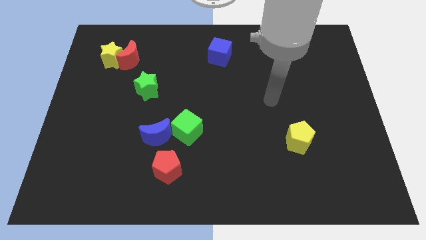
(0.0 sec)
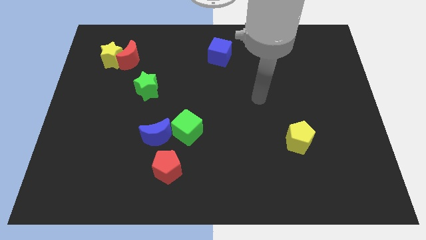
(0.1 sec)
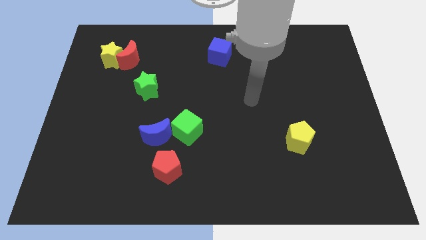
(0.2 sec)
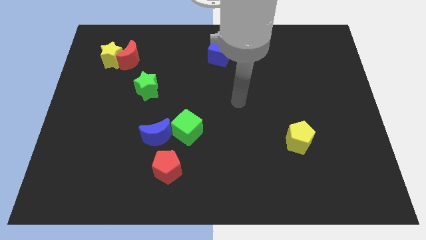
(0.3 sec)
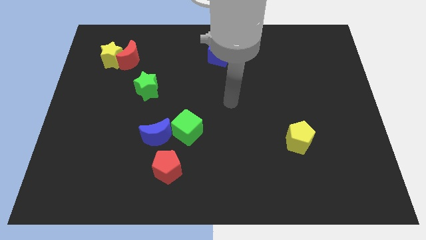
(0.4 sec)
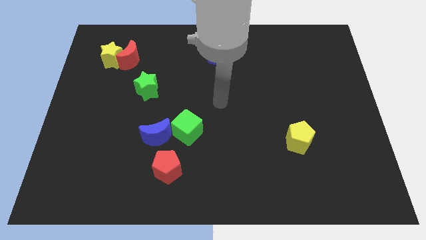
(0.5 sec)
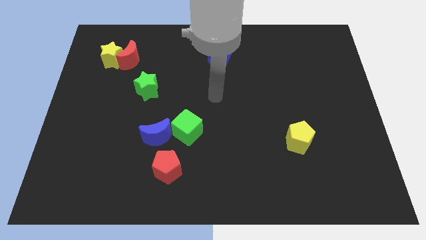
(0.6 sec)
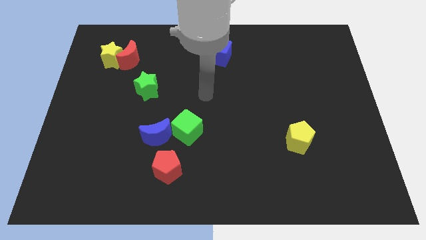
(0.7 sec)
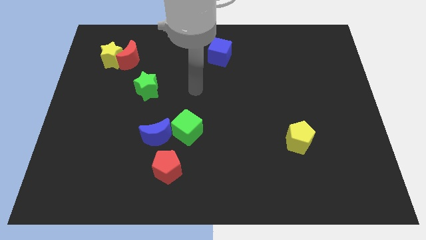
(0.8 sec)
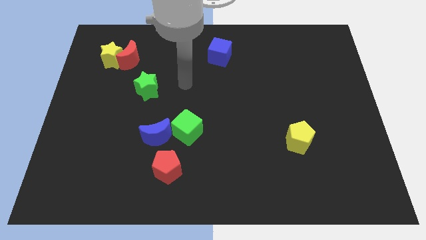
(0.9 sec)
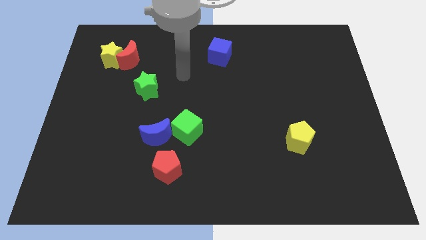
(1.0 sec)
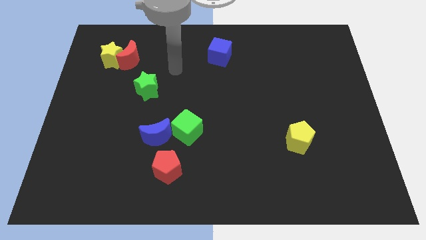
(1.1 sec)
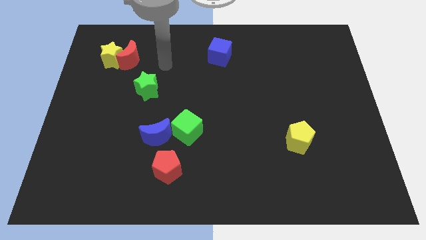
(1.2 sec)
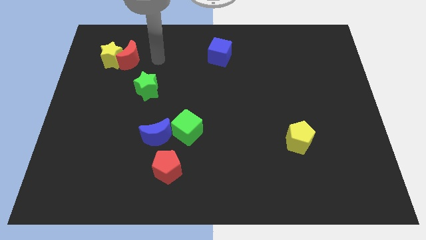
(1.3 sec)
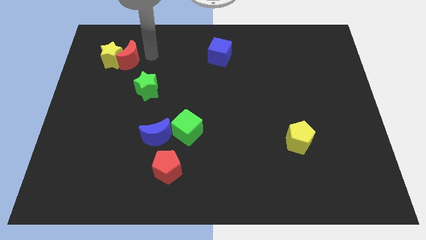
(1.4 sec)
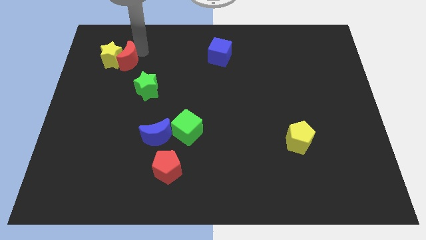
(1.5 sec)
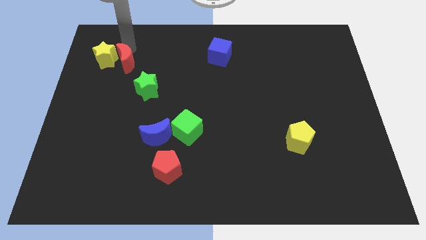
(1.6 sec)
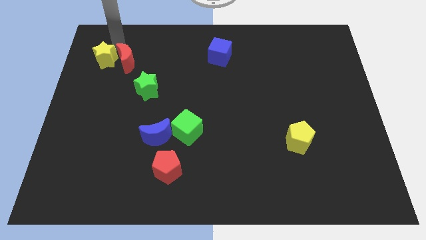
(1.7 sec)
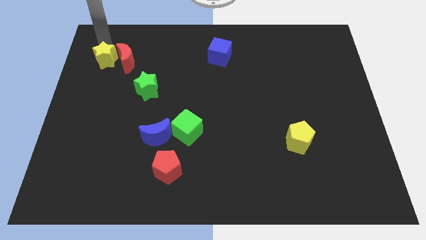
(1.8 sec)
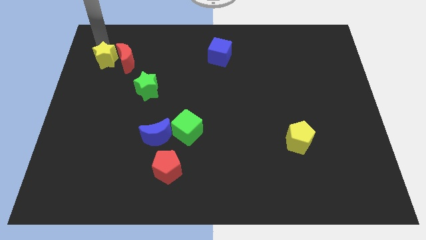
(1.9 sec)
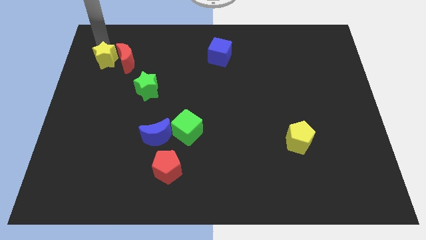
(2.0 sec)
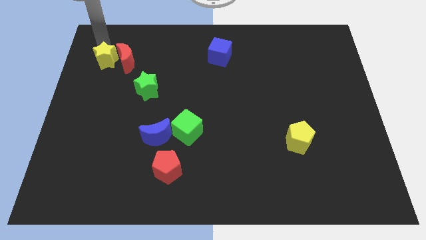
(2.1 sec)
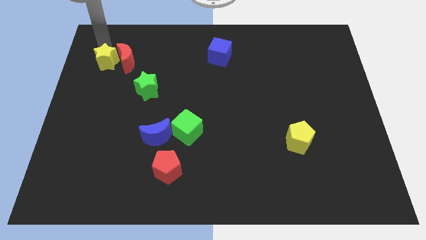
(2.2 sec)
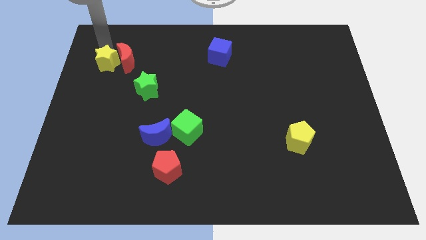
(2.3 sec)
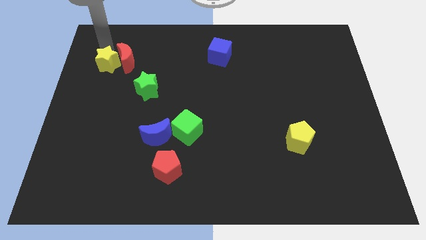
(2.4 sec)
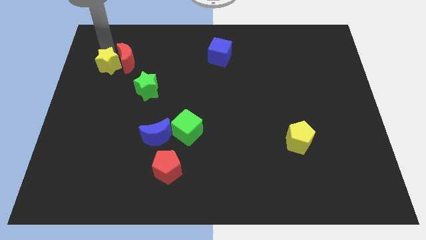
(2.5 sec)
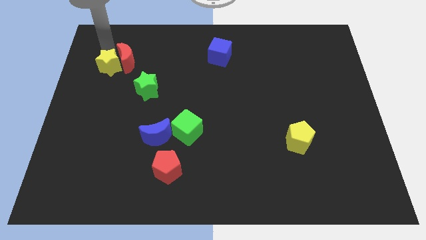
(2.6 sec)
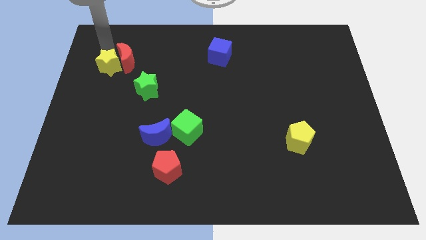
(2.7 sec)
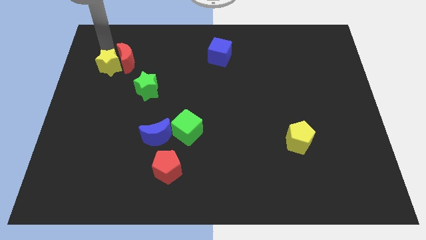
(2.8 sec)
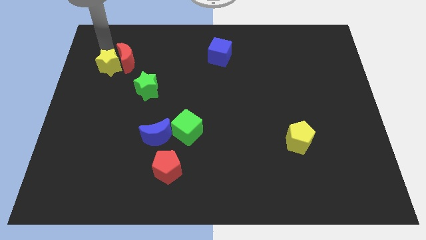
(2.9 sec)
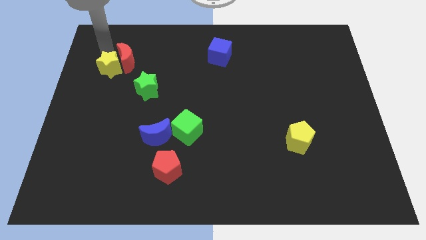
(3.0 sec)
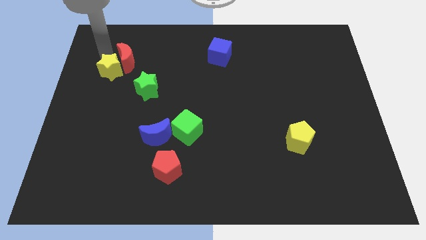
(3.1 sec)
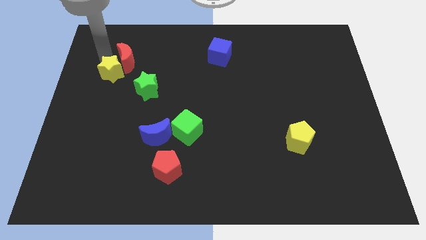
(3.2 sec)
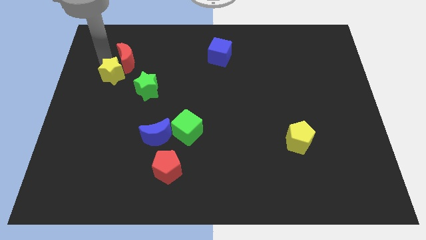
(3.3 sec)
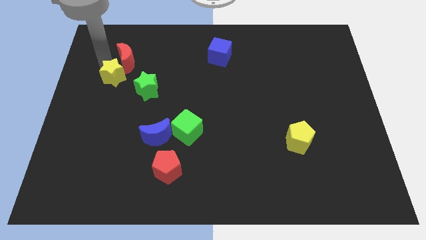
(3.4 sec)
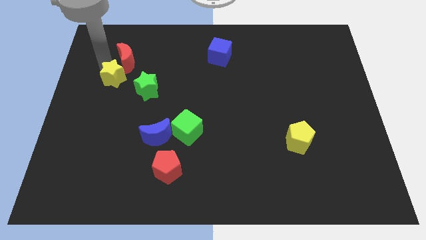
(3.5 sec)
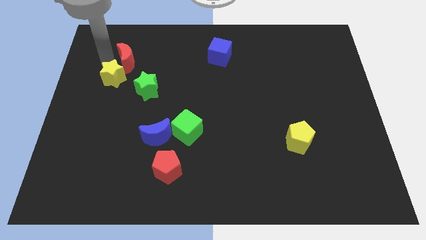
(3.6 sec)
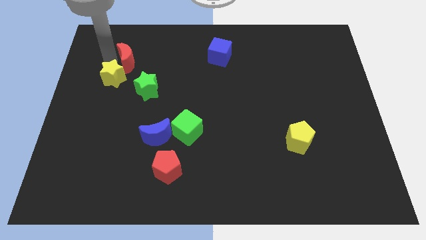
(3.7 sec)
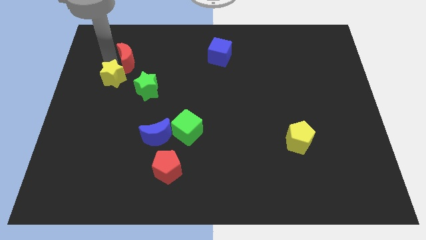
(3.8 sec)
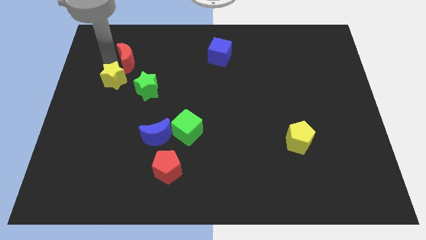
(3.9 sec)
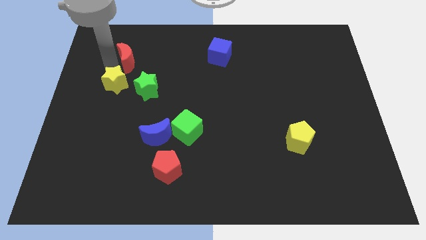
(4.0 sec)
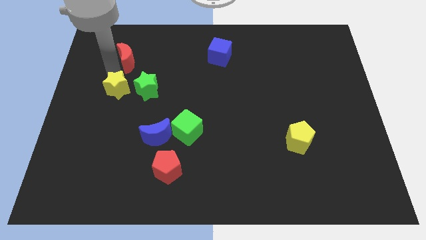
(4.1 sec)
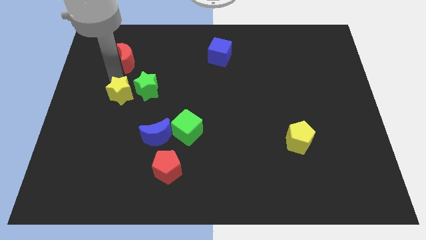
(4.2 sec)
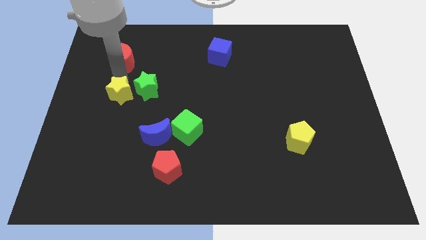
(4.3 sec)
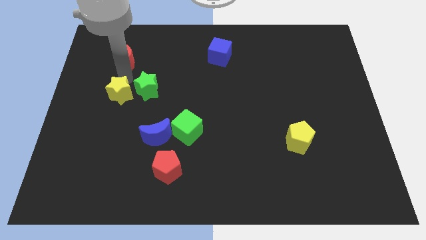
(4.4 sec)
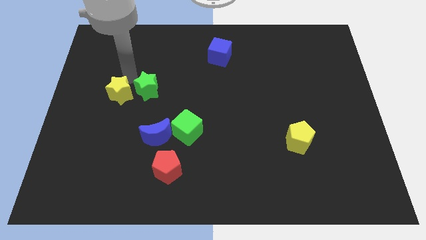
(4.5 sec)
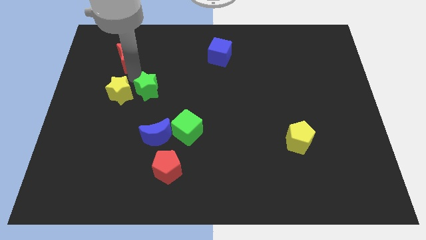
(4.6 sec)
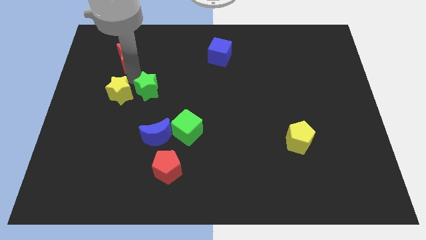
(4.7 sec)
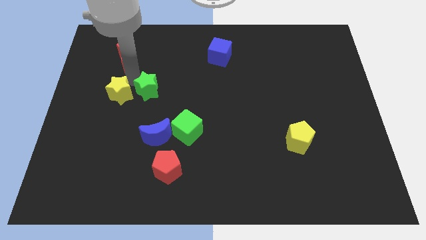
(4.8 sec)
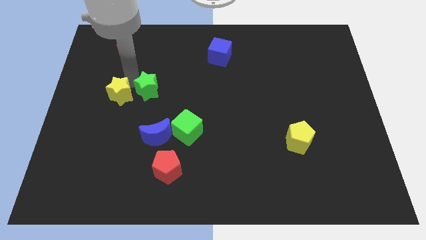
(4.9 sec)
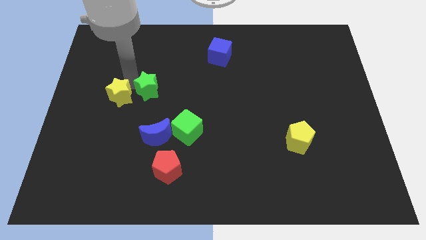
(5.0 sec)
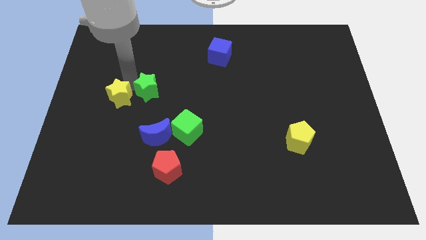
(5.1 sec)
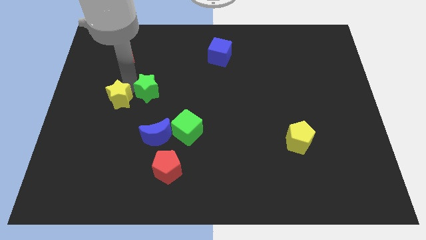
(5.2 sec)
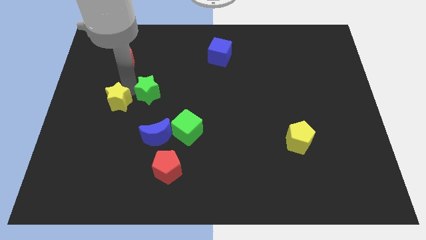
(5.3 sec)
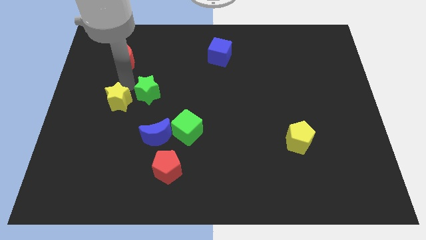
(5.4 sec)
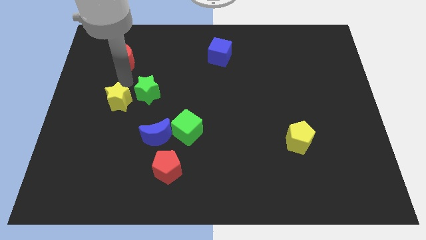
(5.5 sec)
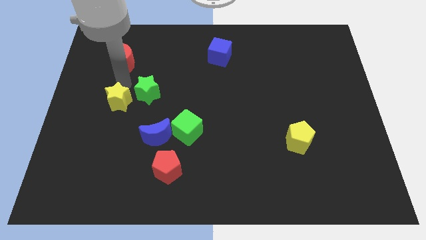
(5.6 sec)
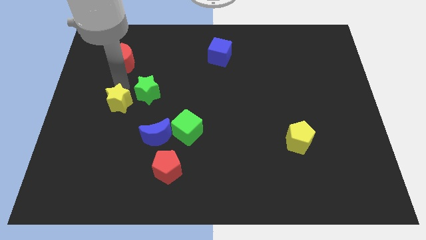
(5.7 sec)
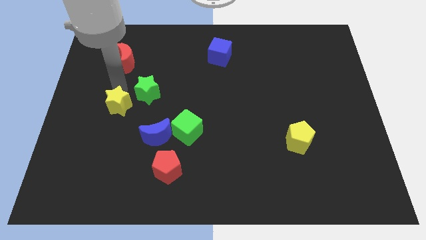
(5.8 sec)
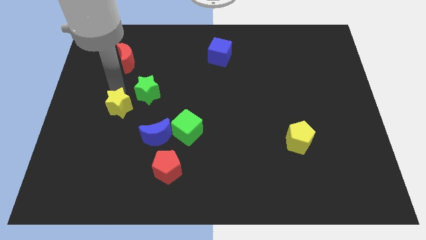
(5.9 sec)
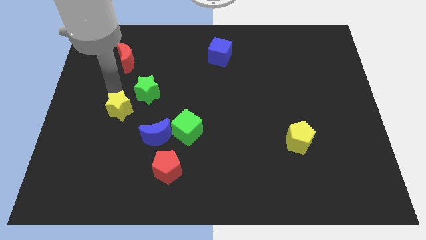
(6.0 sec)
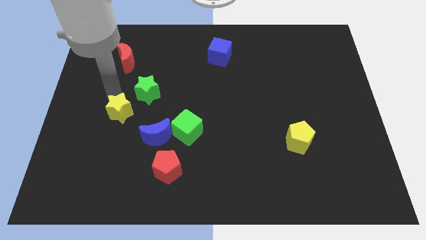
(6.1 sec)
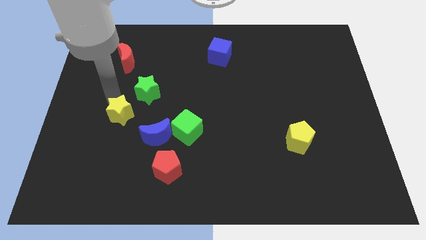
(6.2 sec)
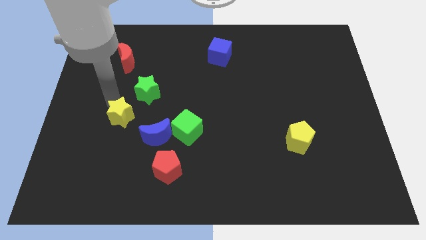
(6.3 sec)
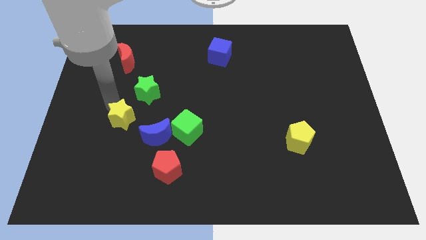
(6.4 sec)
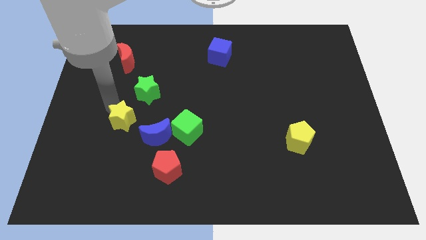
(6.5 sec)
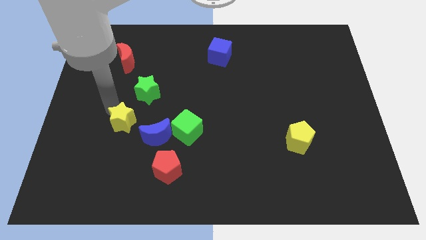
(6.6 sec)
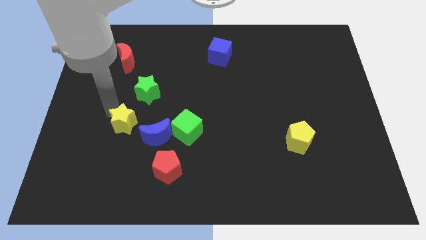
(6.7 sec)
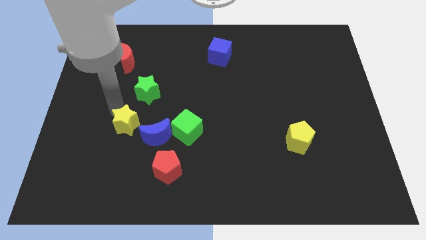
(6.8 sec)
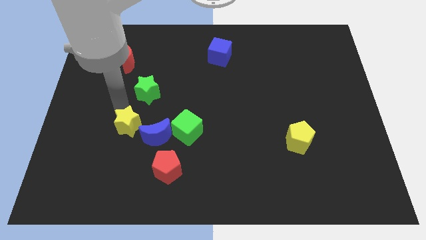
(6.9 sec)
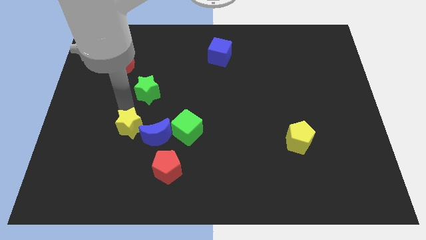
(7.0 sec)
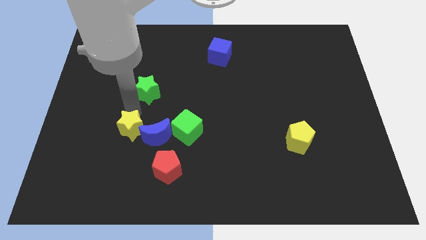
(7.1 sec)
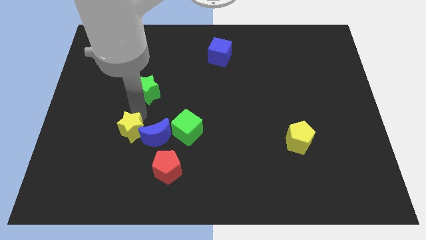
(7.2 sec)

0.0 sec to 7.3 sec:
move the yellow star downwards
